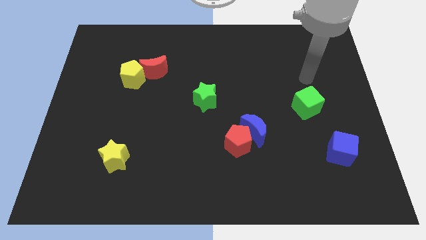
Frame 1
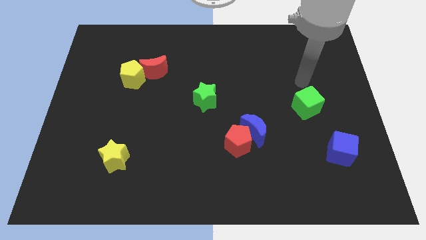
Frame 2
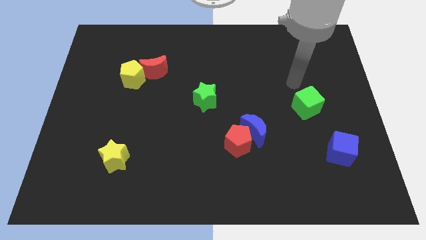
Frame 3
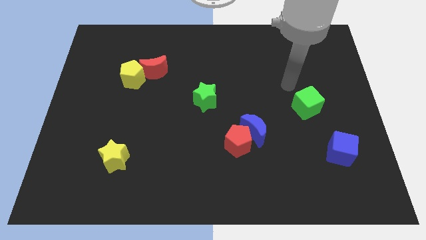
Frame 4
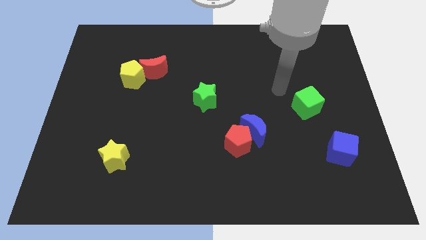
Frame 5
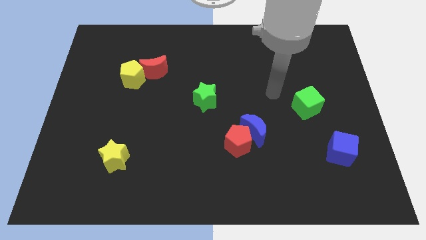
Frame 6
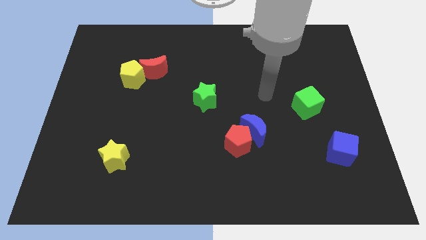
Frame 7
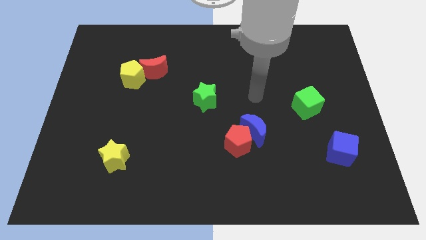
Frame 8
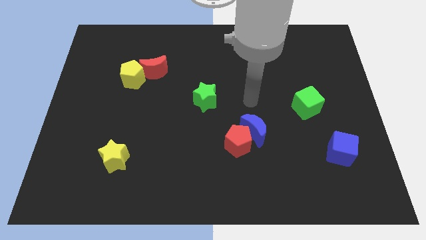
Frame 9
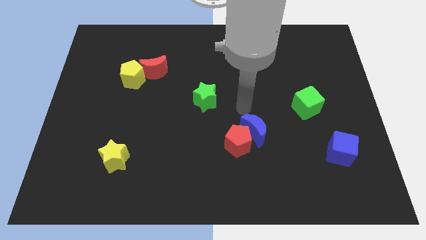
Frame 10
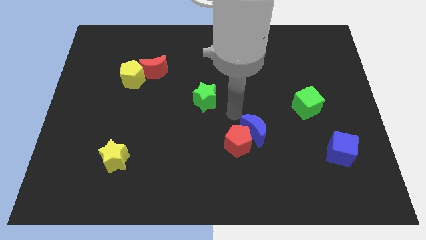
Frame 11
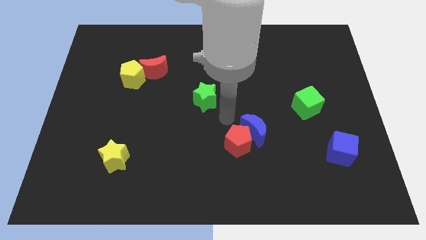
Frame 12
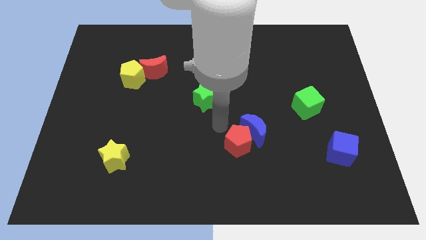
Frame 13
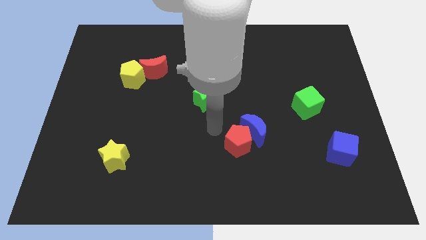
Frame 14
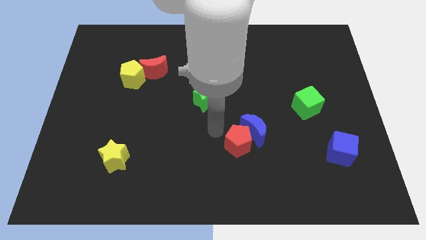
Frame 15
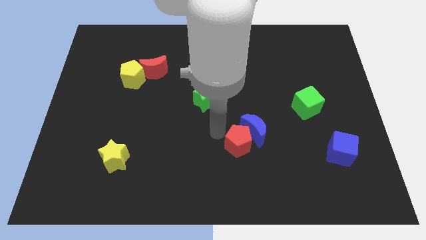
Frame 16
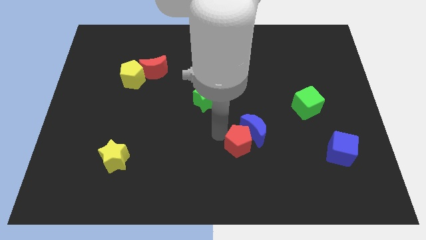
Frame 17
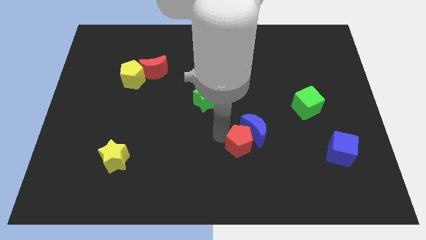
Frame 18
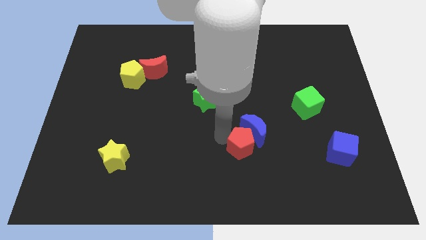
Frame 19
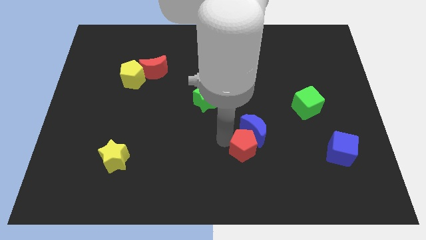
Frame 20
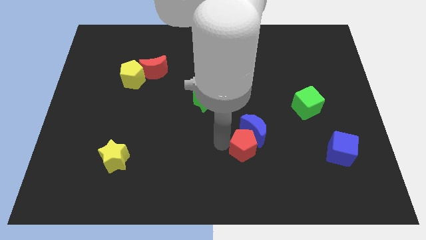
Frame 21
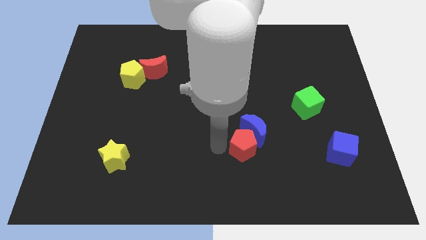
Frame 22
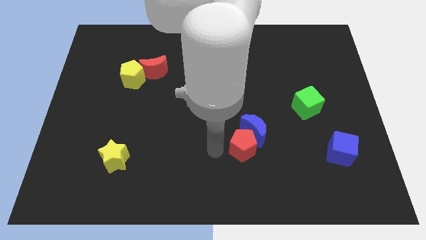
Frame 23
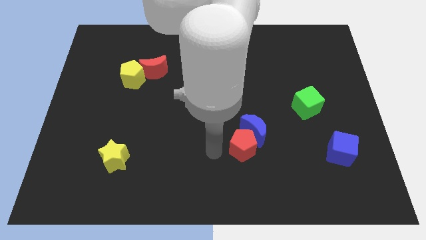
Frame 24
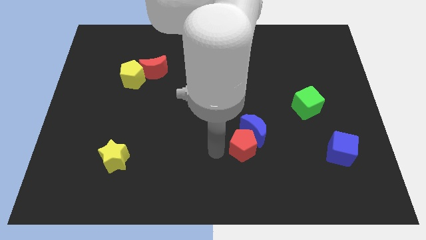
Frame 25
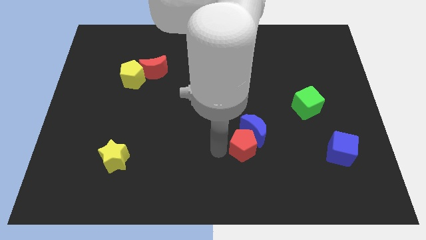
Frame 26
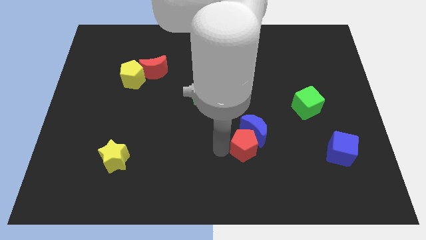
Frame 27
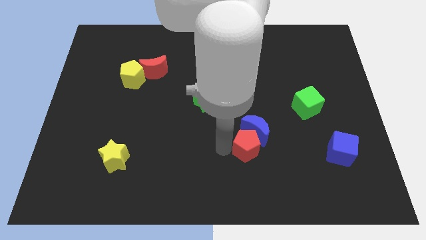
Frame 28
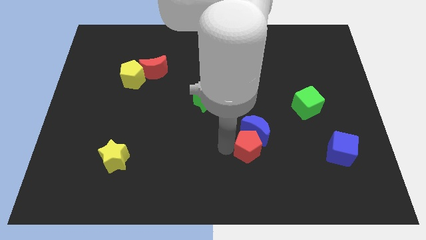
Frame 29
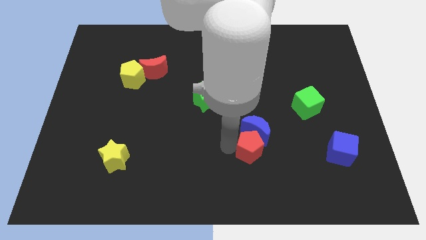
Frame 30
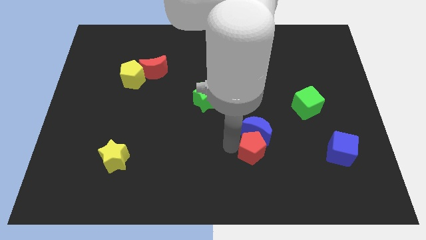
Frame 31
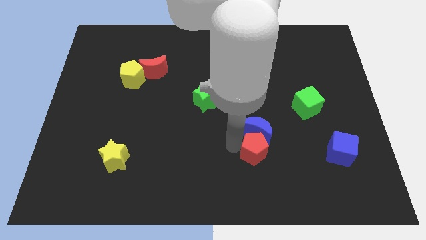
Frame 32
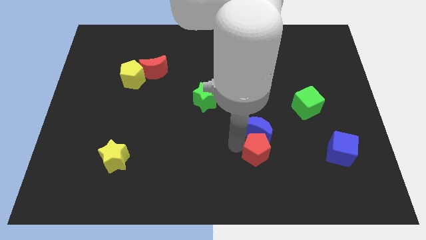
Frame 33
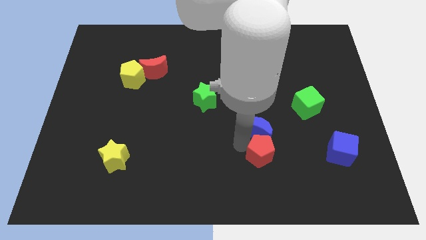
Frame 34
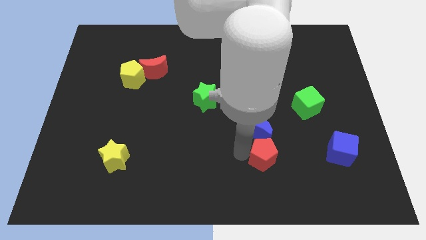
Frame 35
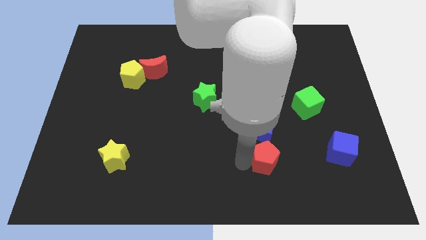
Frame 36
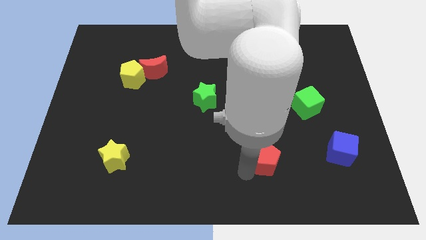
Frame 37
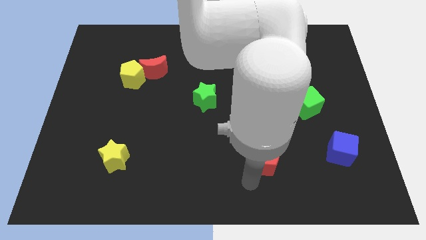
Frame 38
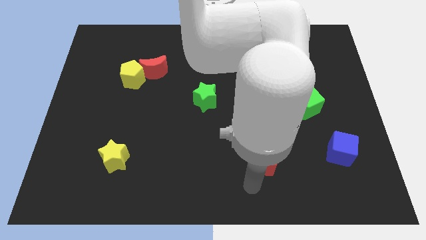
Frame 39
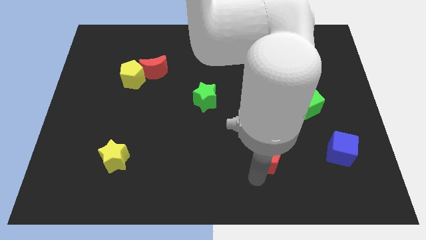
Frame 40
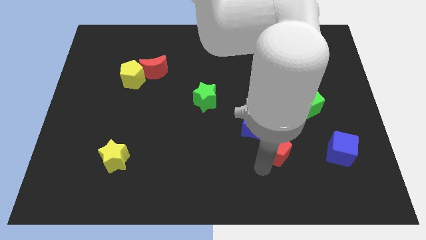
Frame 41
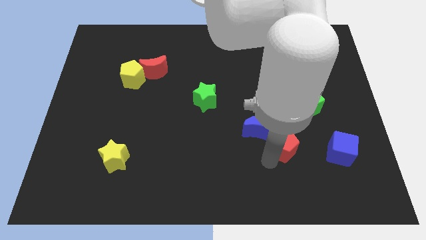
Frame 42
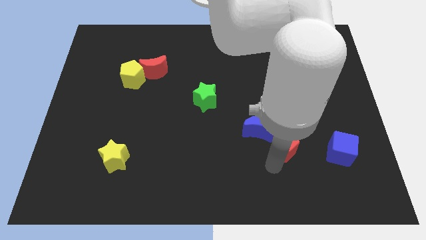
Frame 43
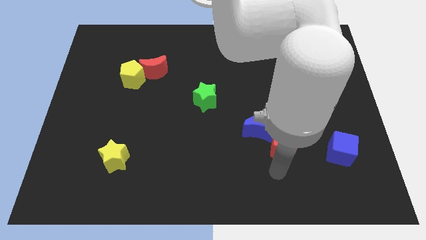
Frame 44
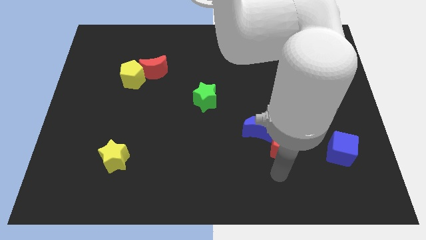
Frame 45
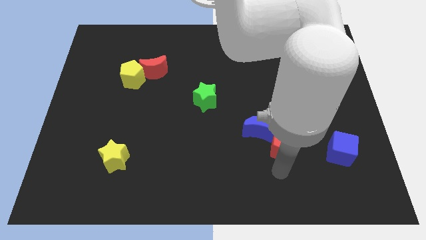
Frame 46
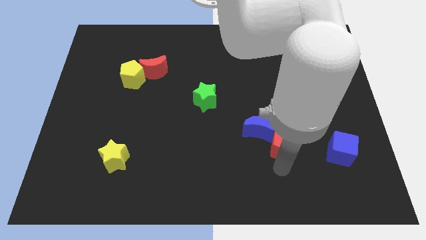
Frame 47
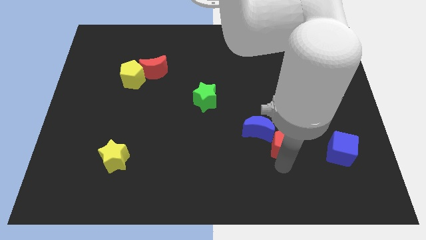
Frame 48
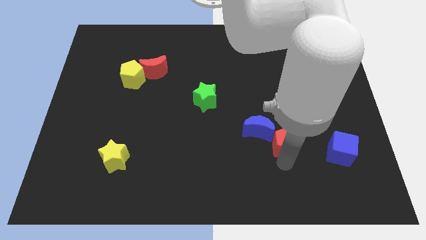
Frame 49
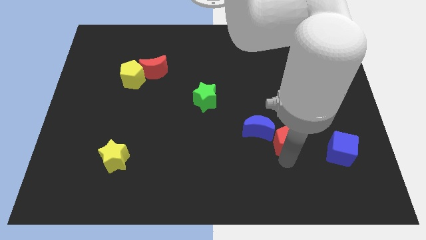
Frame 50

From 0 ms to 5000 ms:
move the red pentagon diagonally down and to the left of the green cube

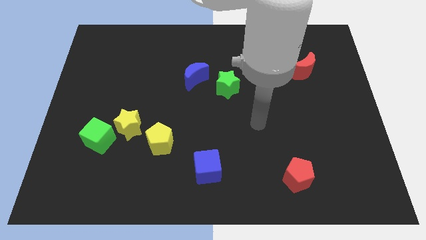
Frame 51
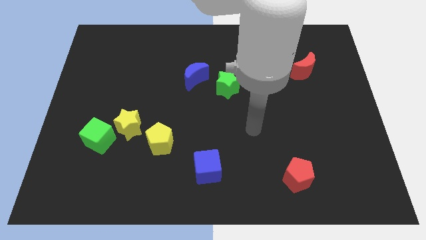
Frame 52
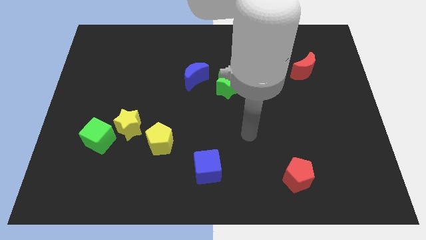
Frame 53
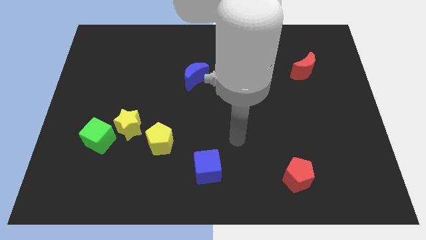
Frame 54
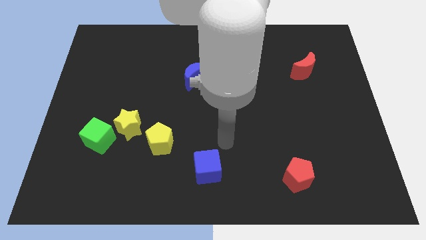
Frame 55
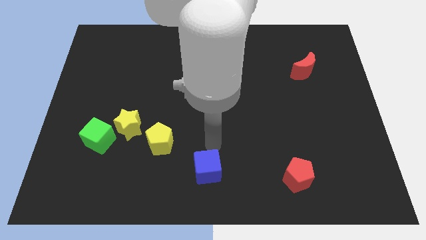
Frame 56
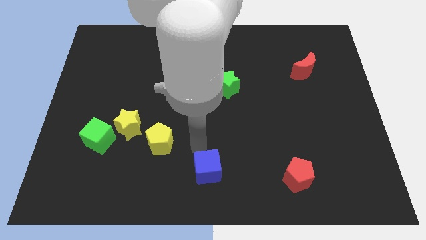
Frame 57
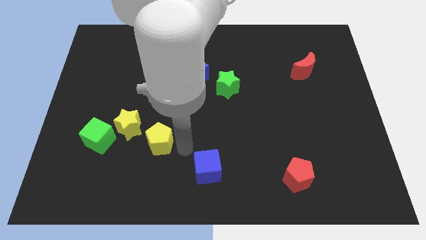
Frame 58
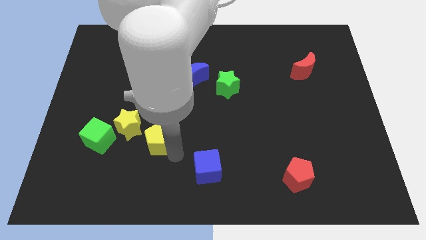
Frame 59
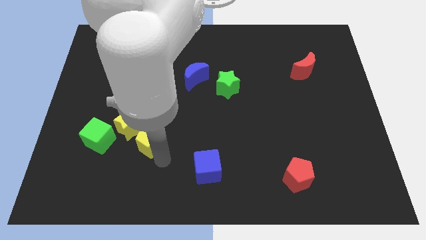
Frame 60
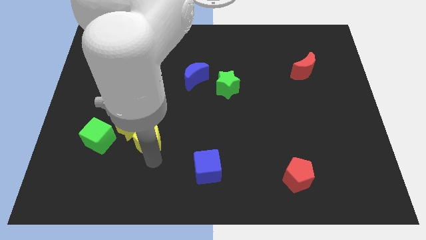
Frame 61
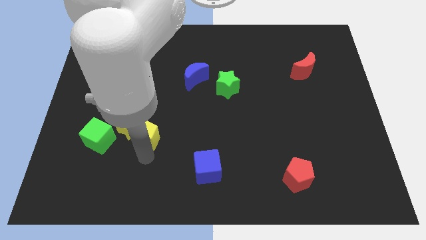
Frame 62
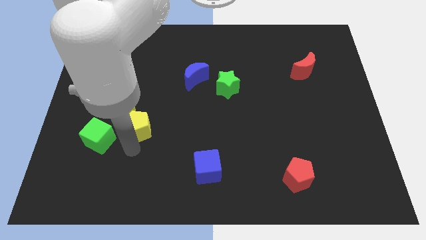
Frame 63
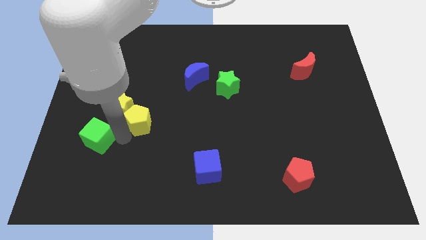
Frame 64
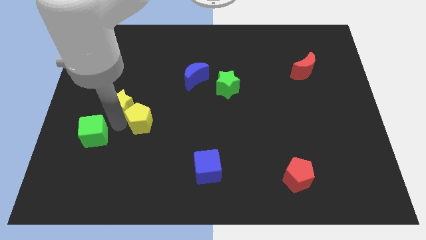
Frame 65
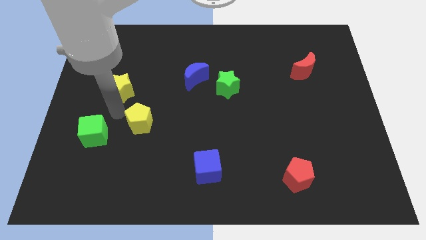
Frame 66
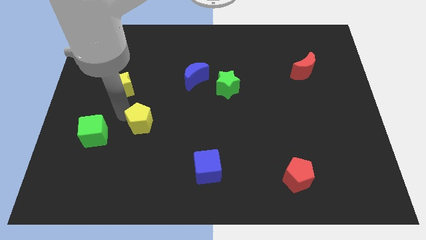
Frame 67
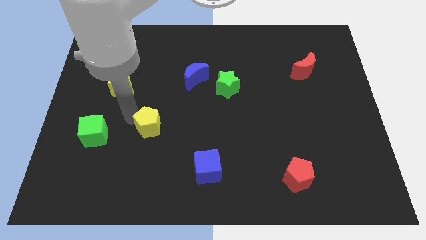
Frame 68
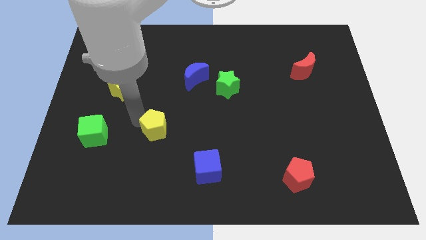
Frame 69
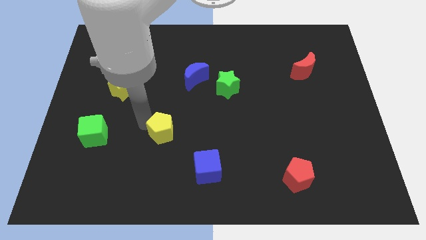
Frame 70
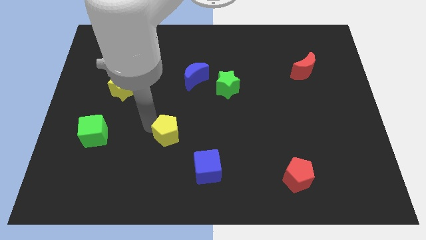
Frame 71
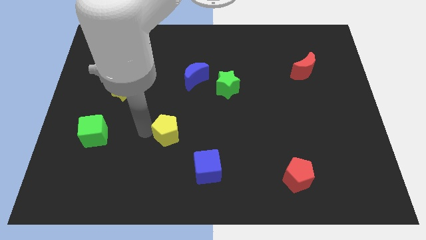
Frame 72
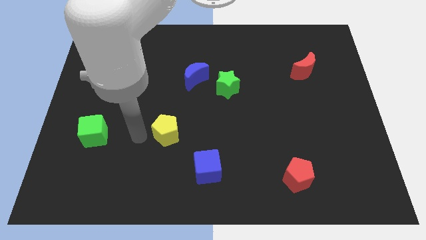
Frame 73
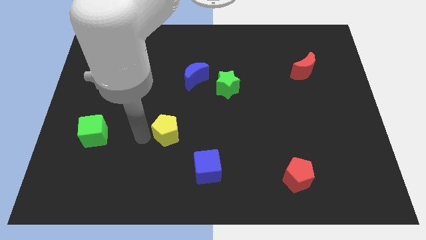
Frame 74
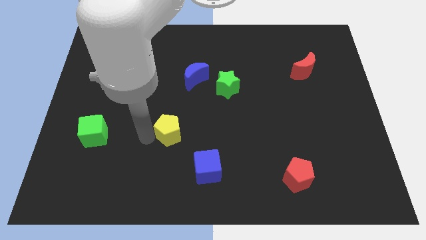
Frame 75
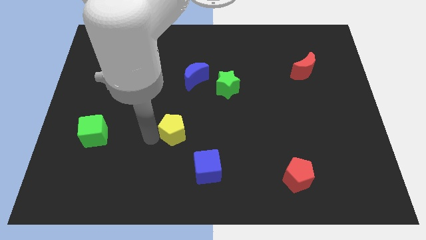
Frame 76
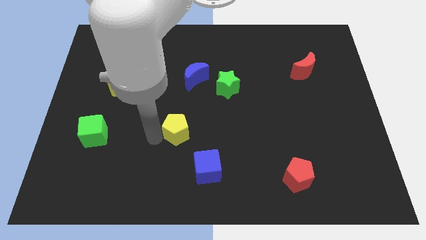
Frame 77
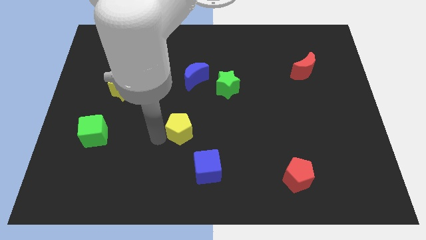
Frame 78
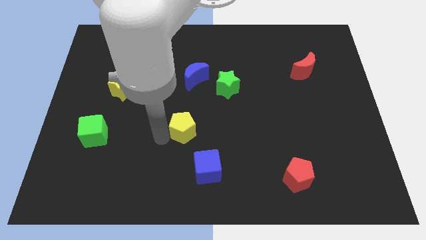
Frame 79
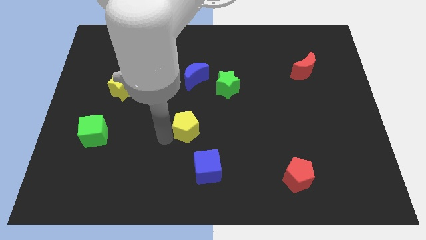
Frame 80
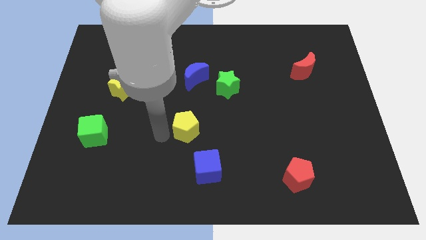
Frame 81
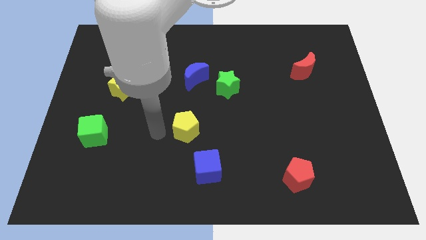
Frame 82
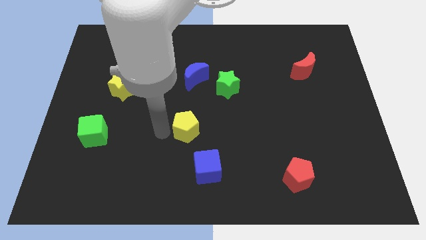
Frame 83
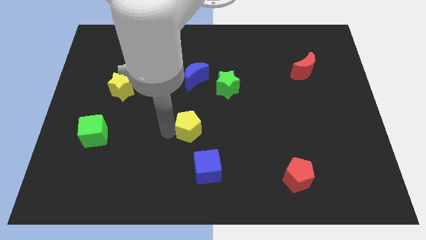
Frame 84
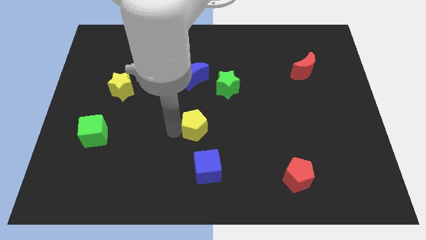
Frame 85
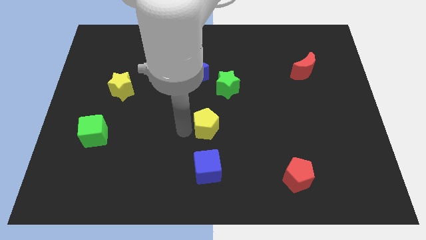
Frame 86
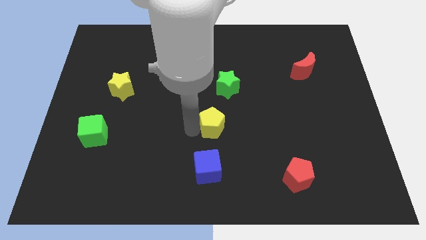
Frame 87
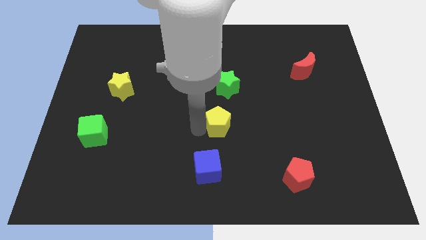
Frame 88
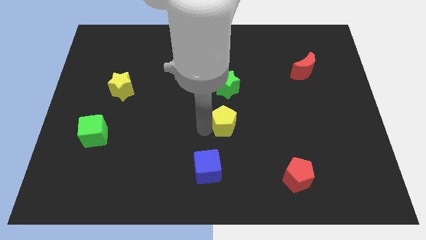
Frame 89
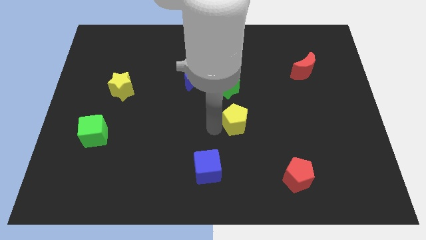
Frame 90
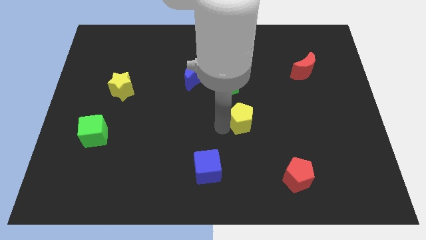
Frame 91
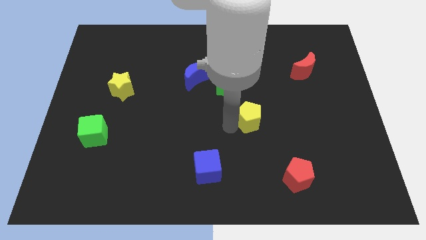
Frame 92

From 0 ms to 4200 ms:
push the yellow pentagon to the bottom right side of the green star
